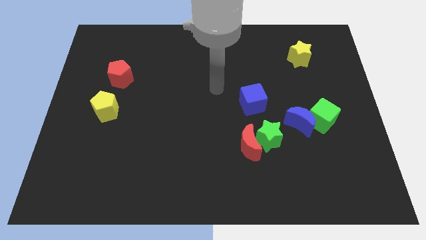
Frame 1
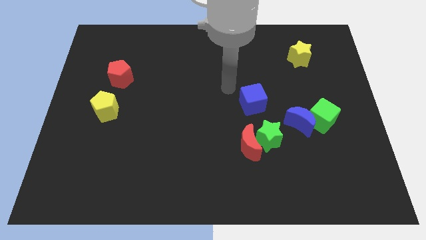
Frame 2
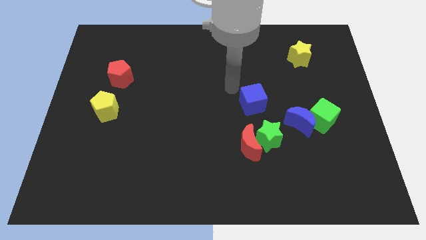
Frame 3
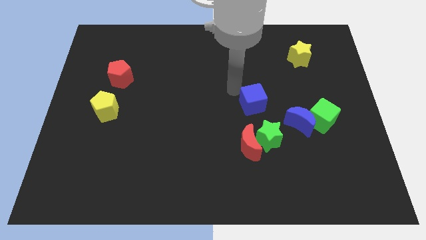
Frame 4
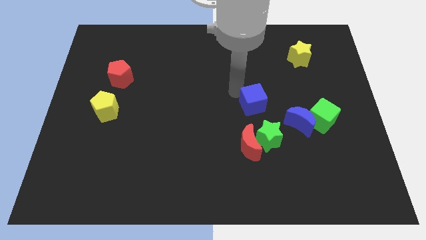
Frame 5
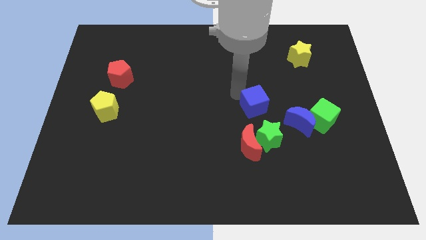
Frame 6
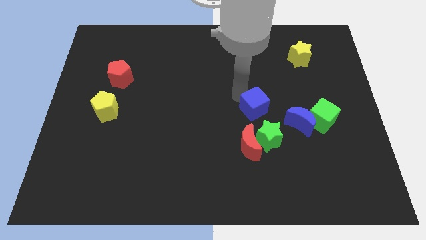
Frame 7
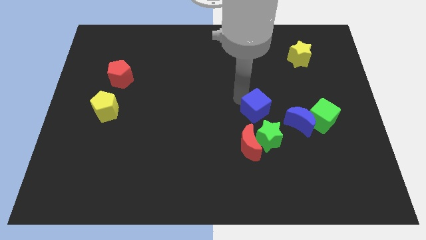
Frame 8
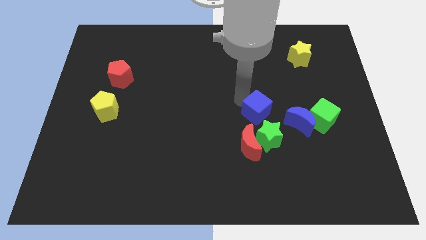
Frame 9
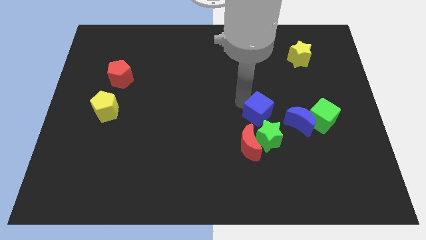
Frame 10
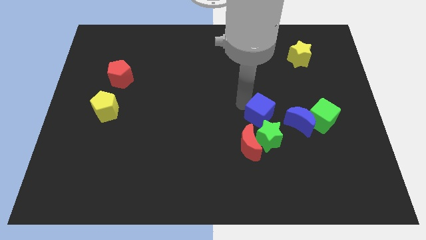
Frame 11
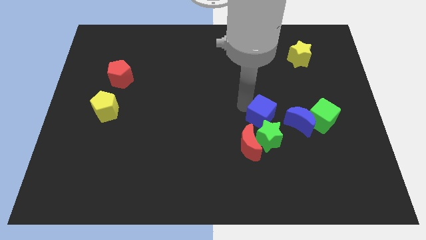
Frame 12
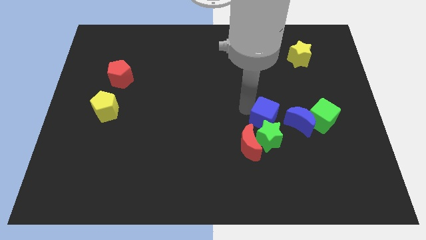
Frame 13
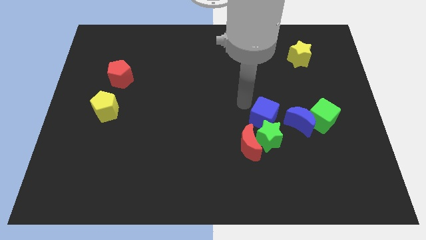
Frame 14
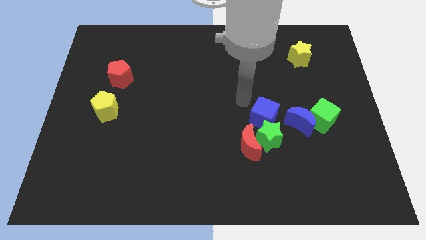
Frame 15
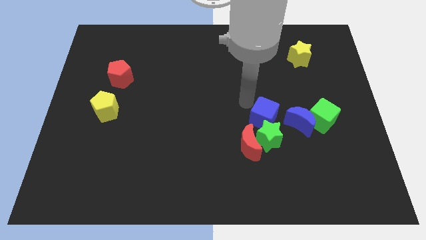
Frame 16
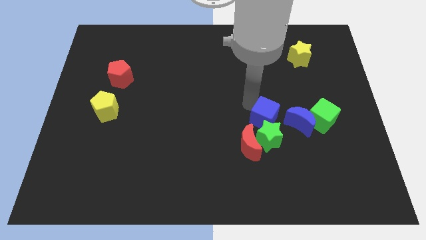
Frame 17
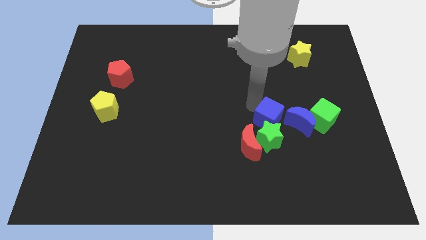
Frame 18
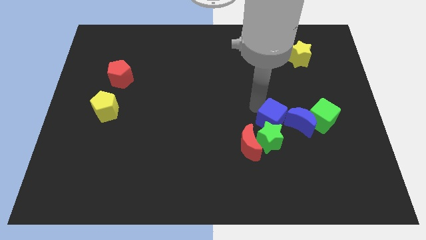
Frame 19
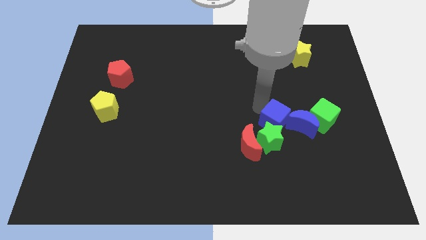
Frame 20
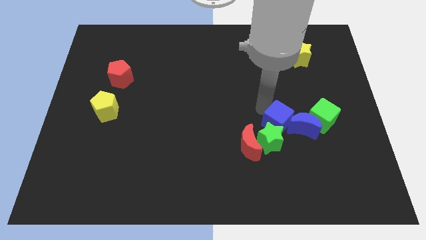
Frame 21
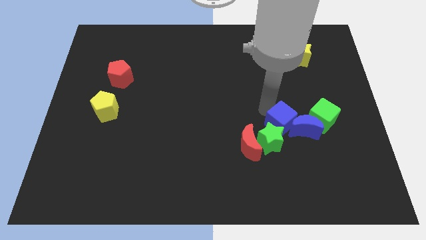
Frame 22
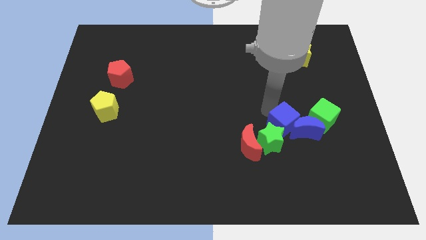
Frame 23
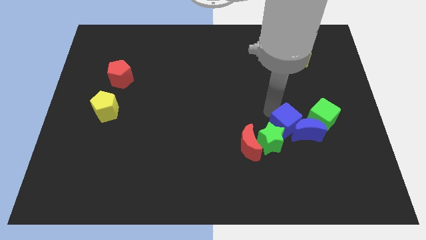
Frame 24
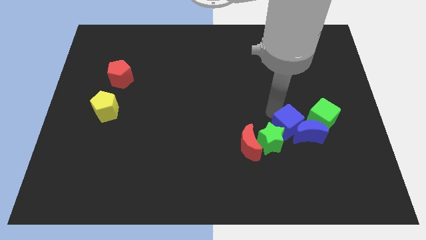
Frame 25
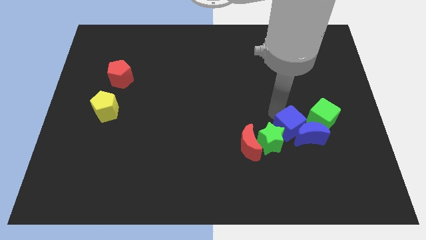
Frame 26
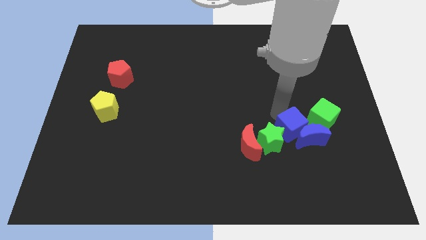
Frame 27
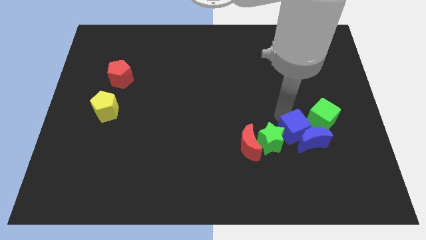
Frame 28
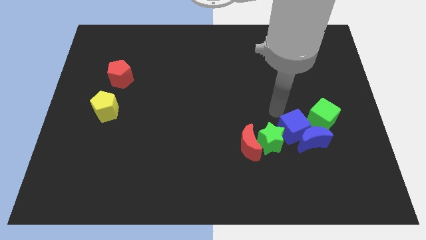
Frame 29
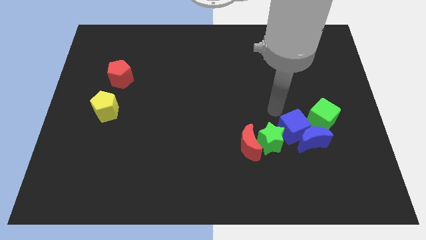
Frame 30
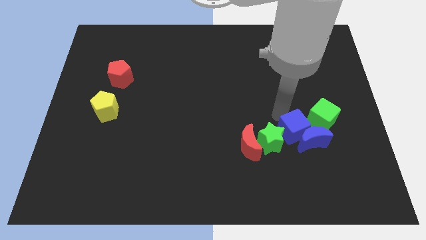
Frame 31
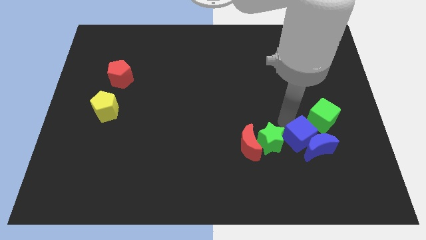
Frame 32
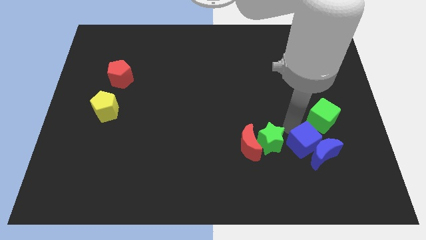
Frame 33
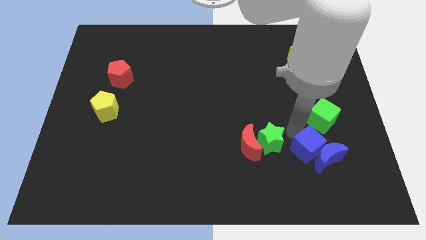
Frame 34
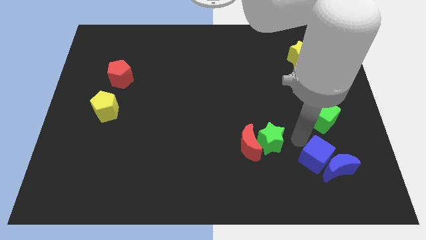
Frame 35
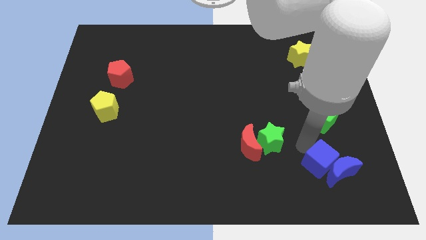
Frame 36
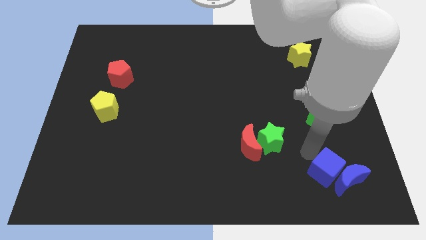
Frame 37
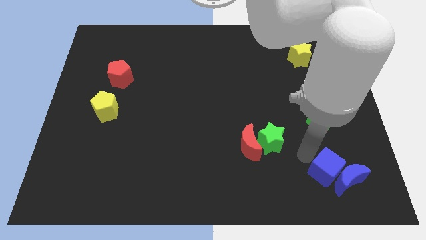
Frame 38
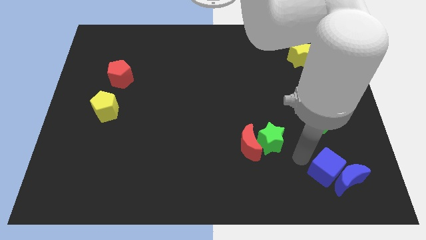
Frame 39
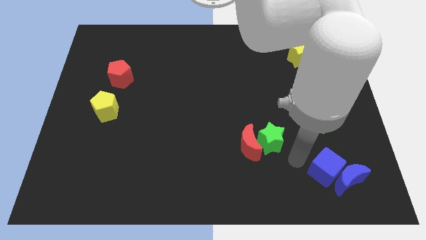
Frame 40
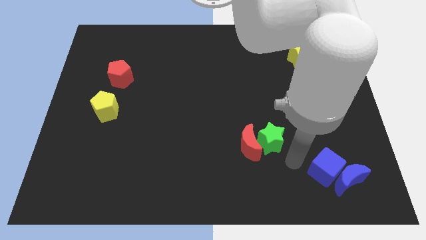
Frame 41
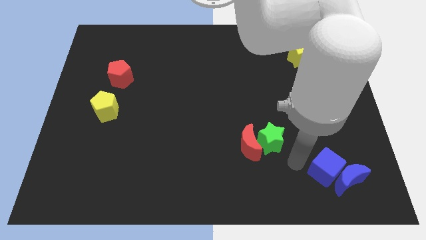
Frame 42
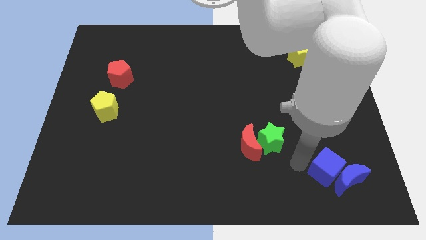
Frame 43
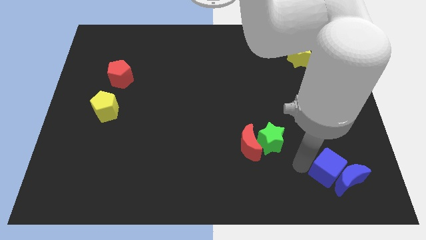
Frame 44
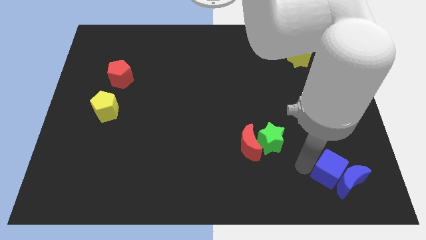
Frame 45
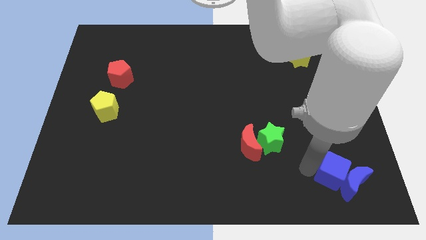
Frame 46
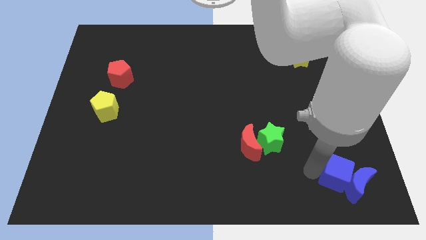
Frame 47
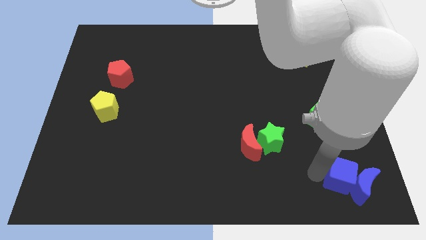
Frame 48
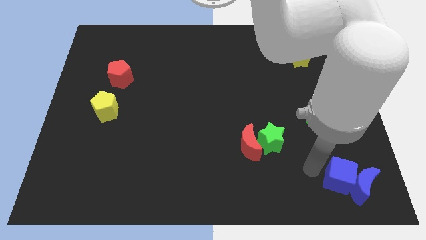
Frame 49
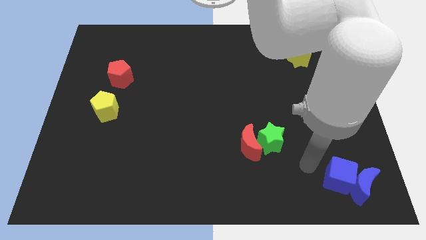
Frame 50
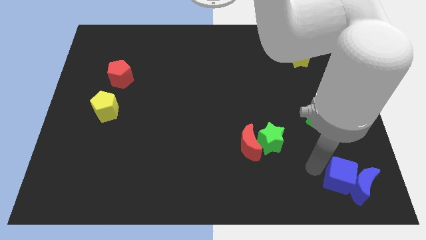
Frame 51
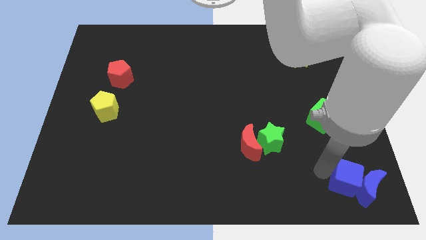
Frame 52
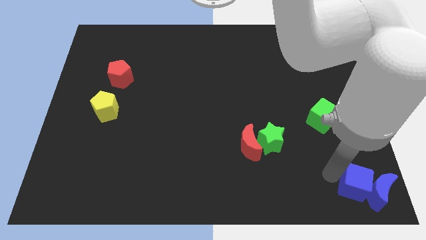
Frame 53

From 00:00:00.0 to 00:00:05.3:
push the blue cube to the bottom right of the board
